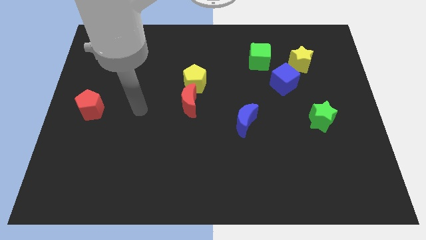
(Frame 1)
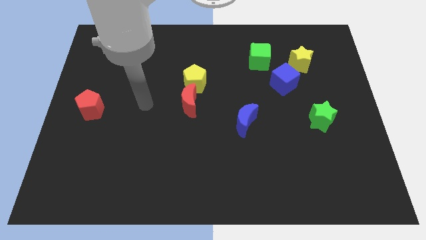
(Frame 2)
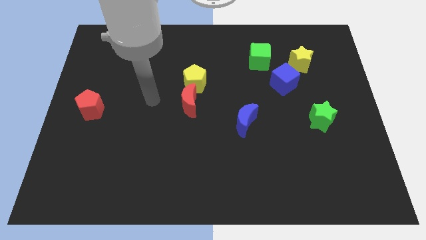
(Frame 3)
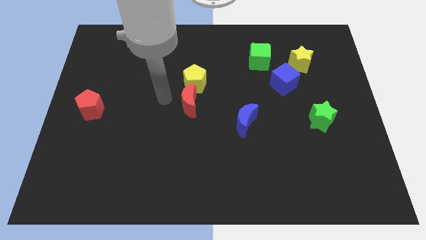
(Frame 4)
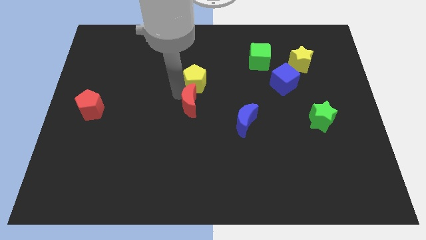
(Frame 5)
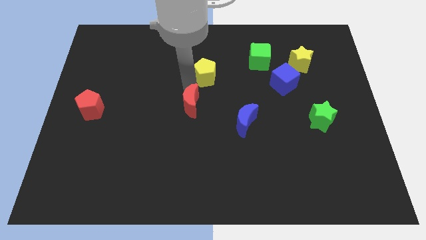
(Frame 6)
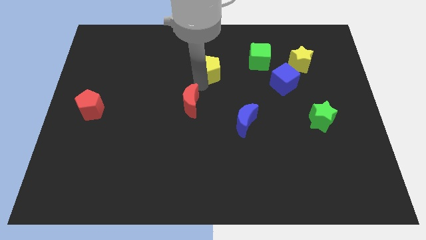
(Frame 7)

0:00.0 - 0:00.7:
separate the red moon from the yellow pentagon

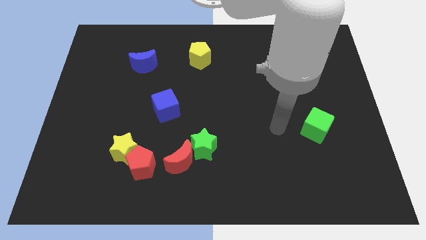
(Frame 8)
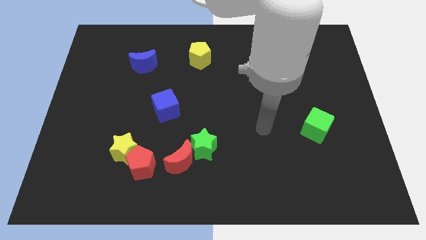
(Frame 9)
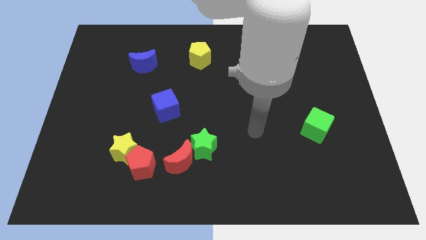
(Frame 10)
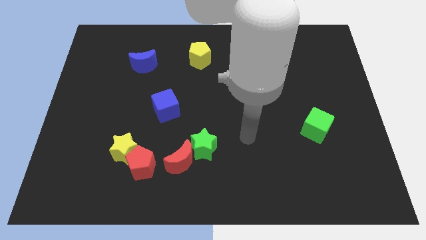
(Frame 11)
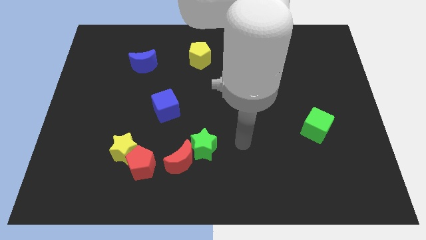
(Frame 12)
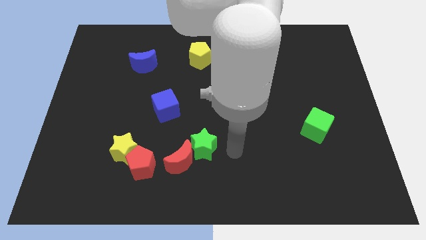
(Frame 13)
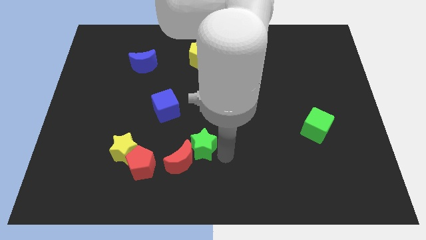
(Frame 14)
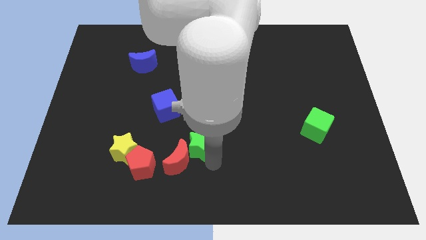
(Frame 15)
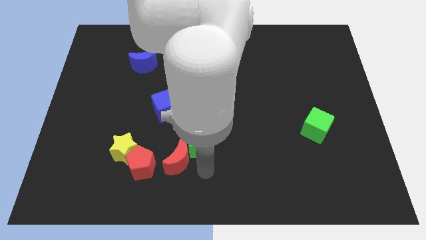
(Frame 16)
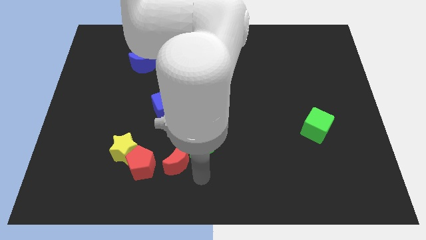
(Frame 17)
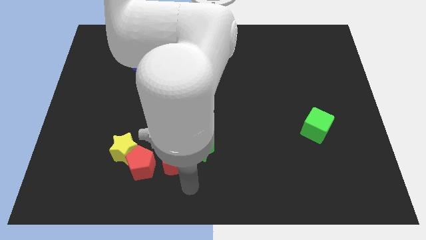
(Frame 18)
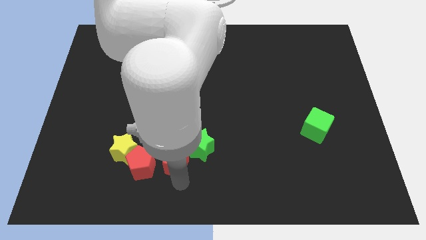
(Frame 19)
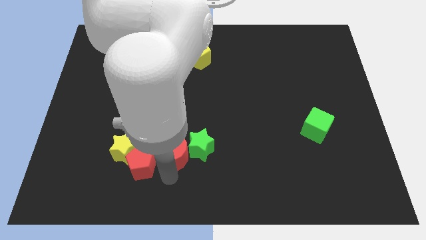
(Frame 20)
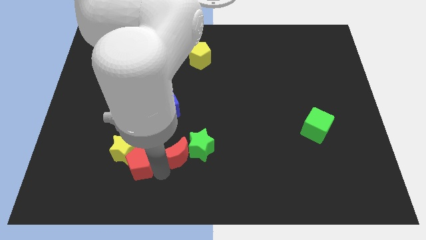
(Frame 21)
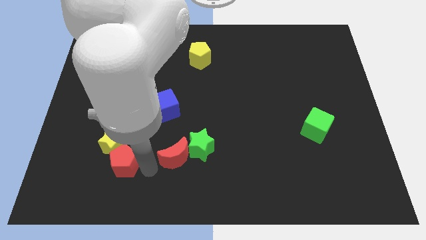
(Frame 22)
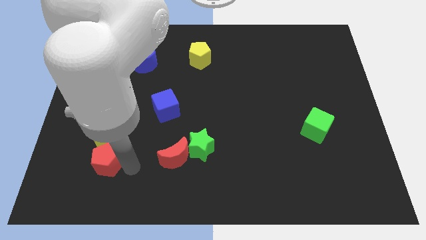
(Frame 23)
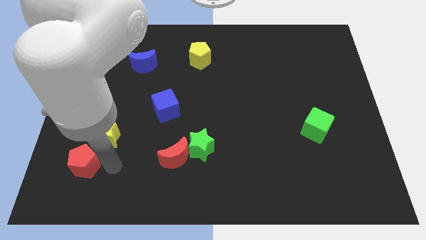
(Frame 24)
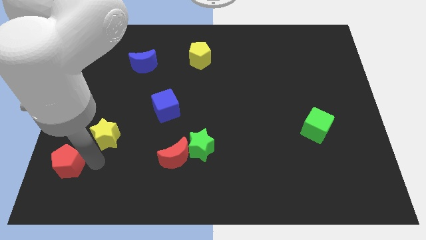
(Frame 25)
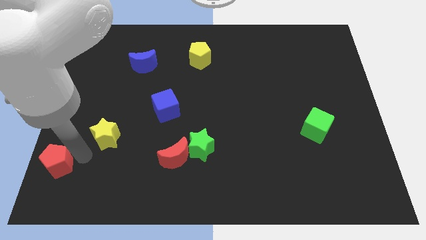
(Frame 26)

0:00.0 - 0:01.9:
move the yellow star away from the red pentagon

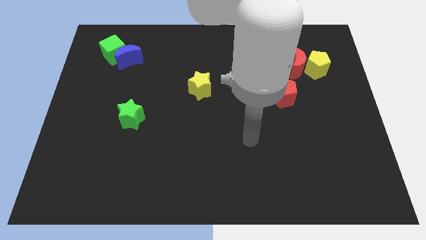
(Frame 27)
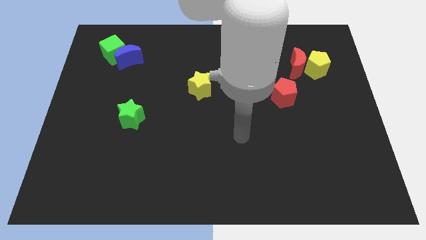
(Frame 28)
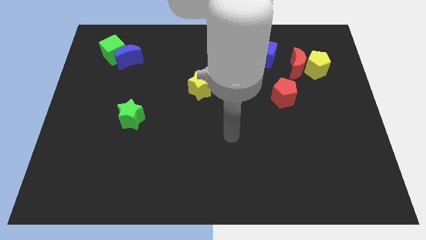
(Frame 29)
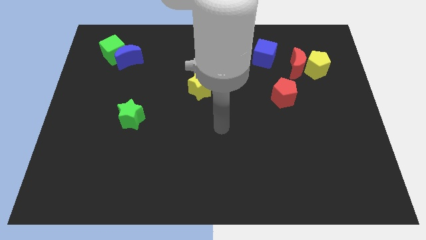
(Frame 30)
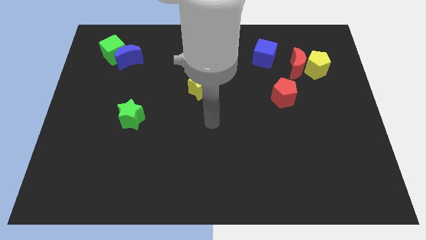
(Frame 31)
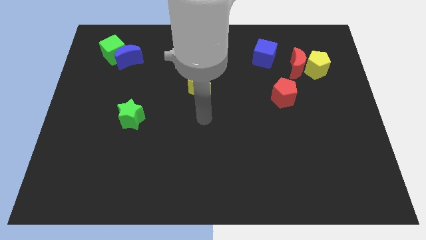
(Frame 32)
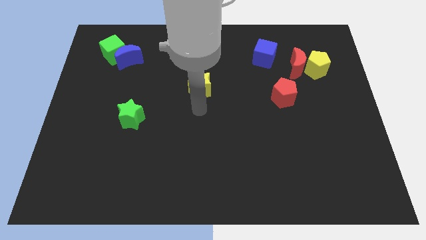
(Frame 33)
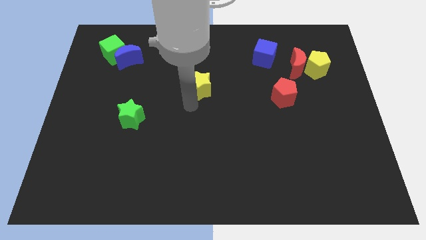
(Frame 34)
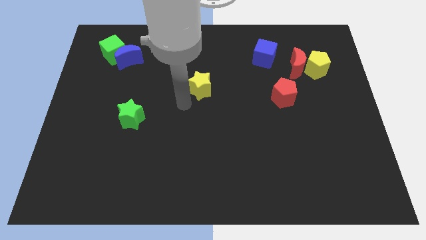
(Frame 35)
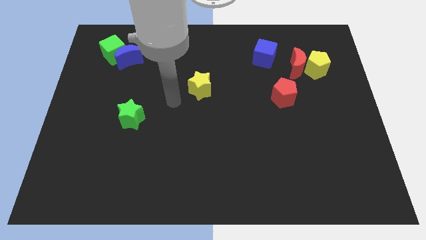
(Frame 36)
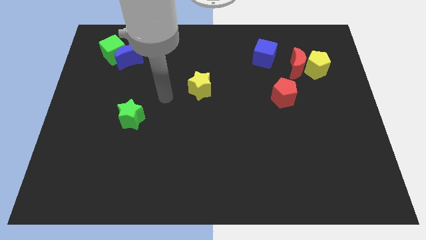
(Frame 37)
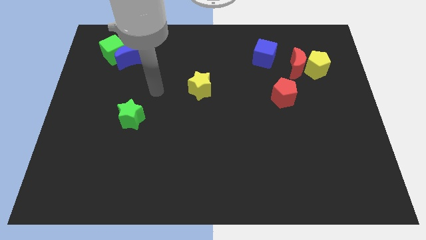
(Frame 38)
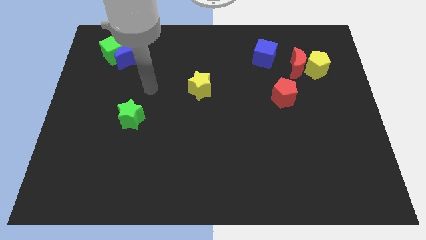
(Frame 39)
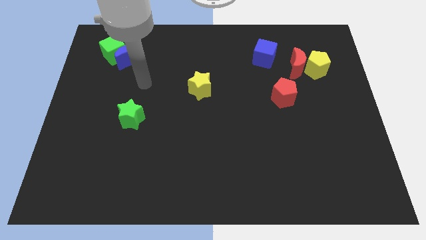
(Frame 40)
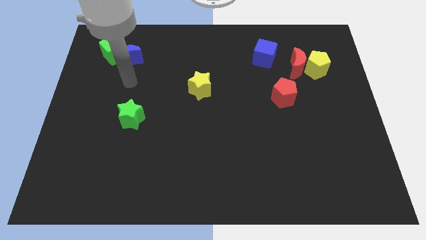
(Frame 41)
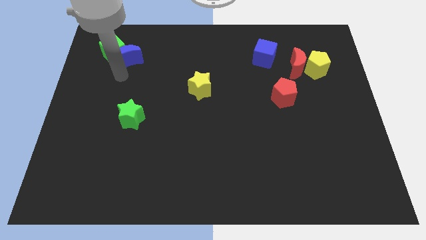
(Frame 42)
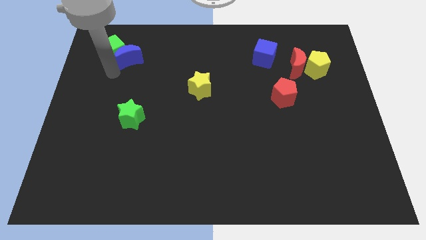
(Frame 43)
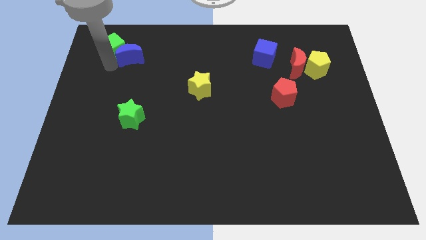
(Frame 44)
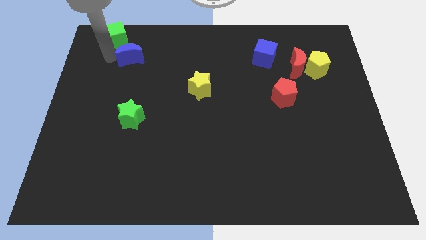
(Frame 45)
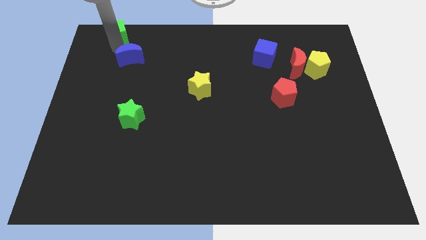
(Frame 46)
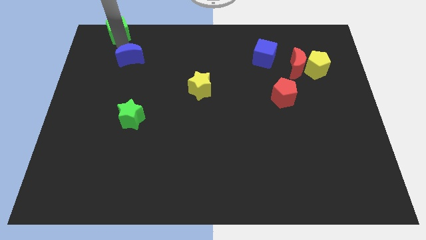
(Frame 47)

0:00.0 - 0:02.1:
separate the blue moon from the green cube

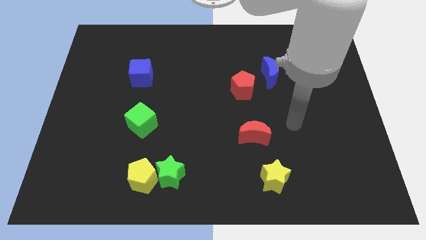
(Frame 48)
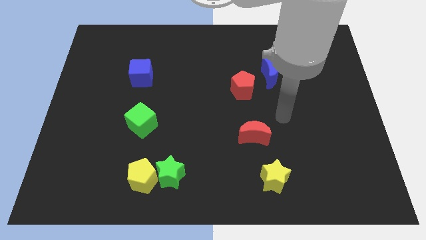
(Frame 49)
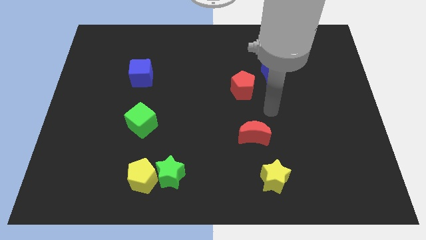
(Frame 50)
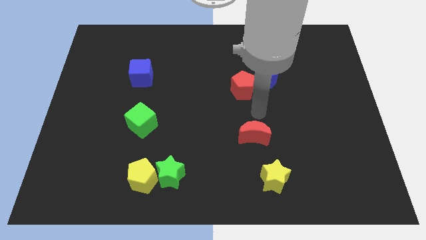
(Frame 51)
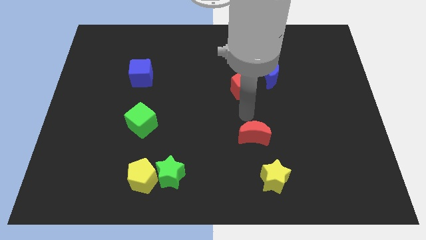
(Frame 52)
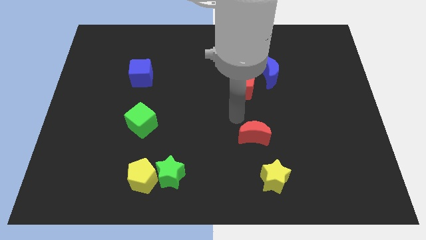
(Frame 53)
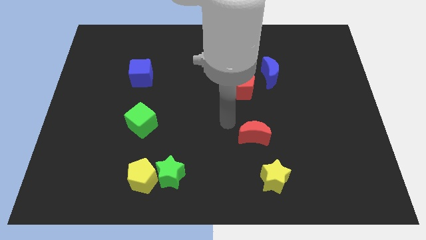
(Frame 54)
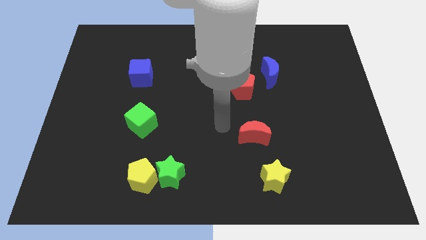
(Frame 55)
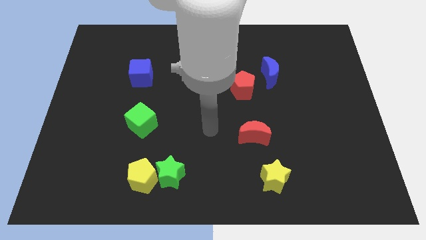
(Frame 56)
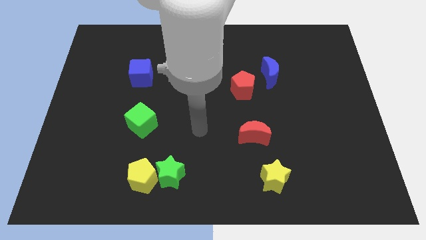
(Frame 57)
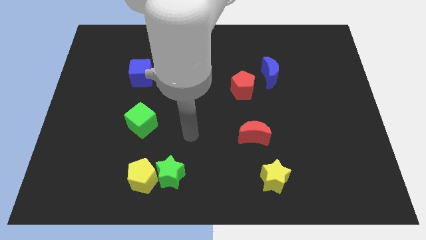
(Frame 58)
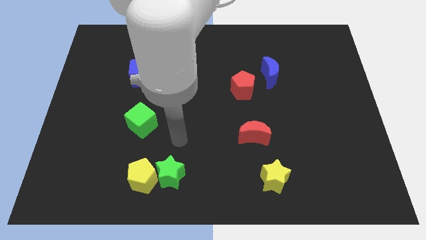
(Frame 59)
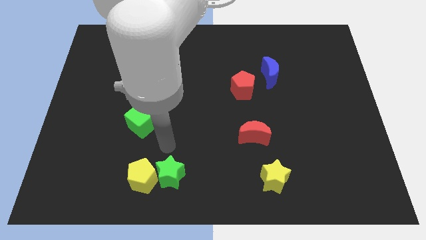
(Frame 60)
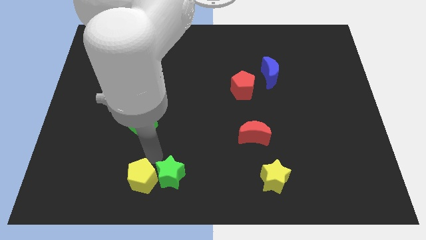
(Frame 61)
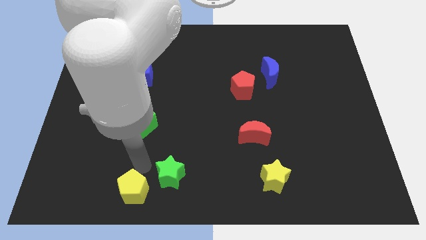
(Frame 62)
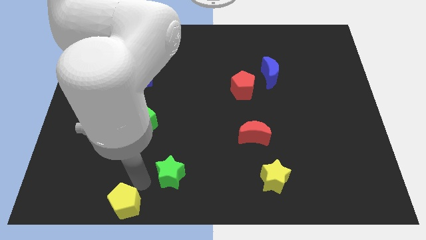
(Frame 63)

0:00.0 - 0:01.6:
move the green star away from the yellow pentagon

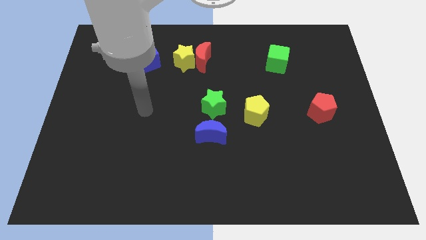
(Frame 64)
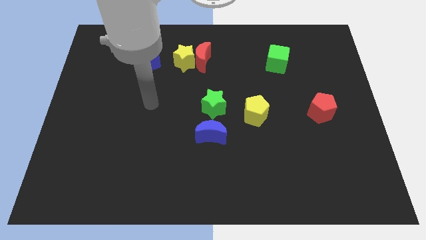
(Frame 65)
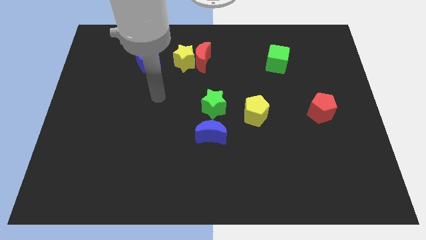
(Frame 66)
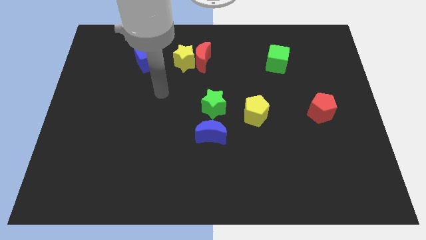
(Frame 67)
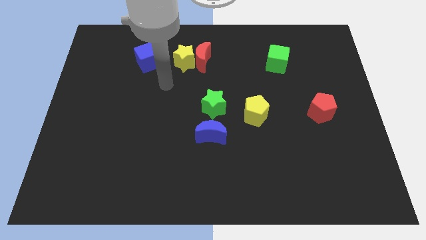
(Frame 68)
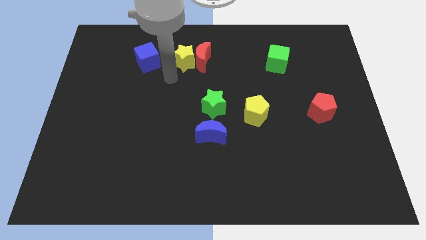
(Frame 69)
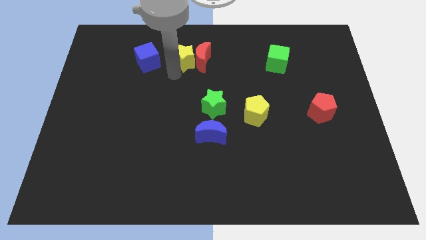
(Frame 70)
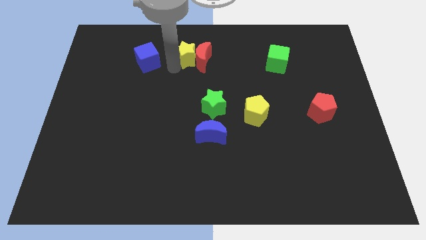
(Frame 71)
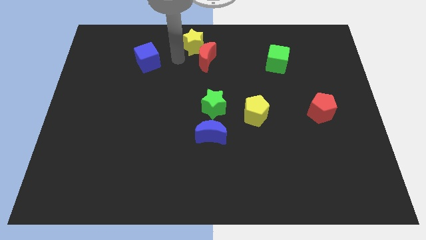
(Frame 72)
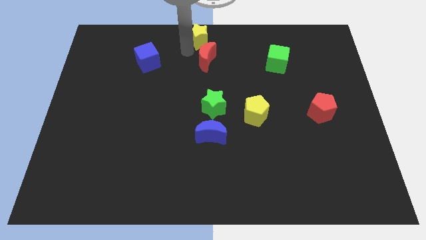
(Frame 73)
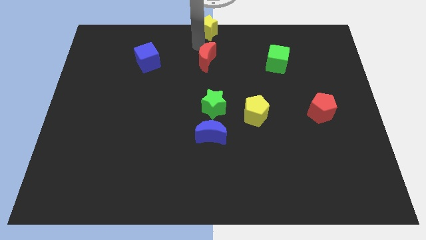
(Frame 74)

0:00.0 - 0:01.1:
pull the red moon apart from the yellow star

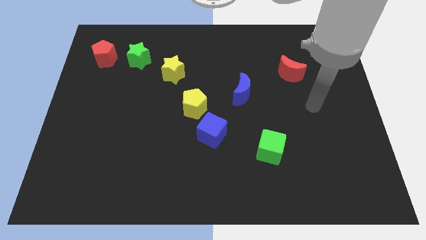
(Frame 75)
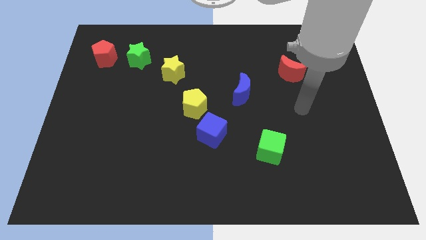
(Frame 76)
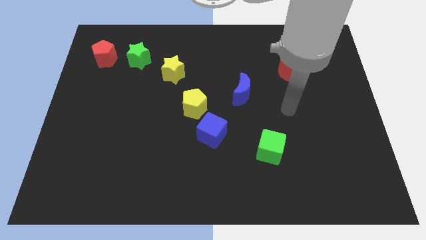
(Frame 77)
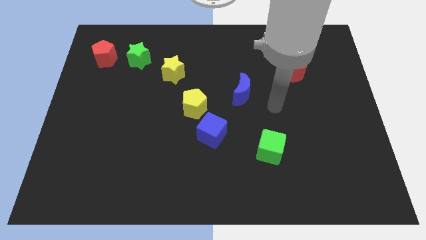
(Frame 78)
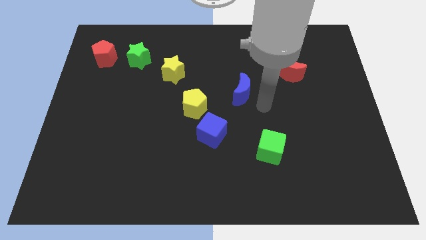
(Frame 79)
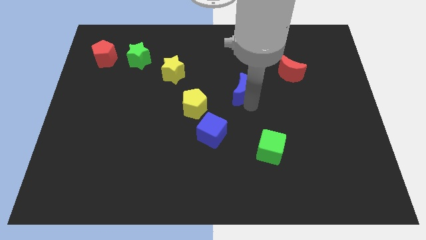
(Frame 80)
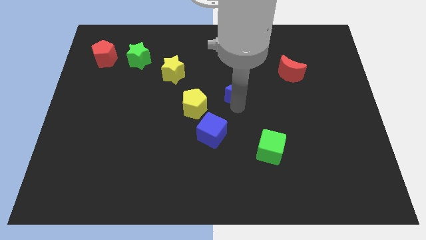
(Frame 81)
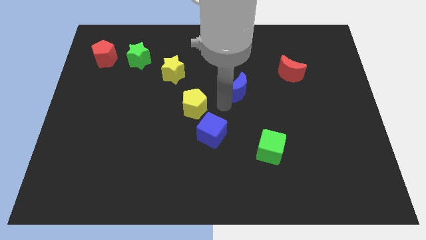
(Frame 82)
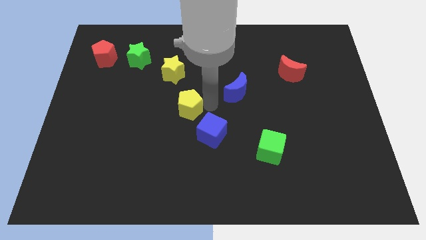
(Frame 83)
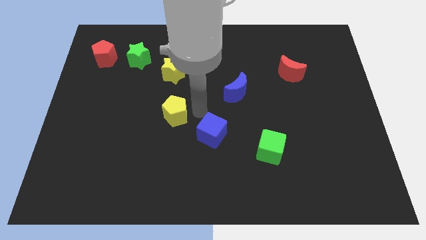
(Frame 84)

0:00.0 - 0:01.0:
move the blue cube away from the yellow pentagon

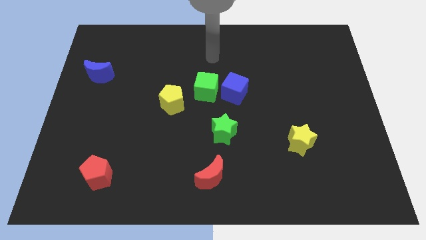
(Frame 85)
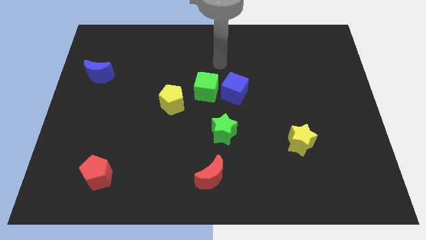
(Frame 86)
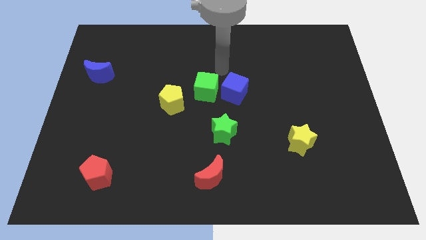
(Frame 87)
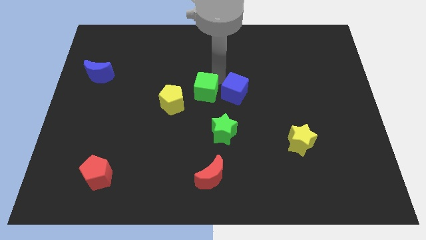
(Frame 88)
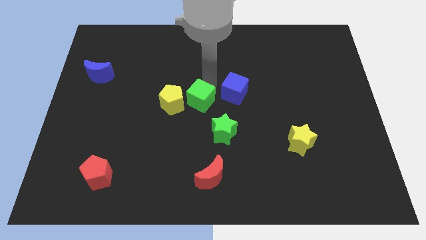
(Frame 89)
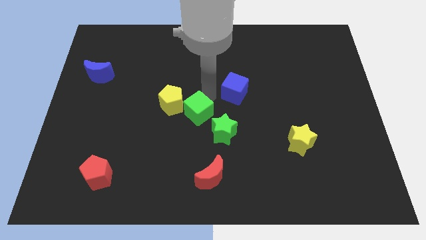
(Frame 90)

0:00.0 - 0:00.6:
move the blue cube away from the green cube

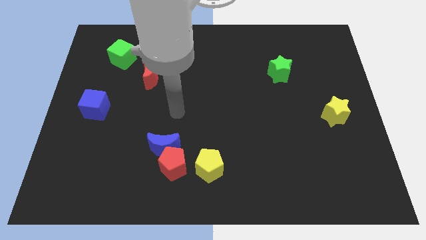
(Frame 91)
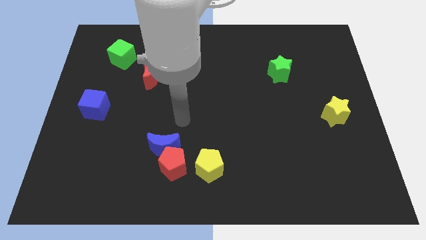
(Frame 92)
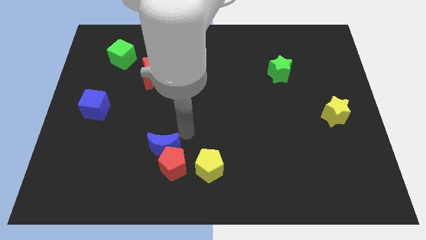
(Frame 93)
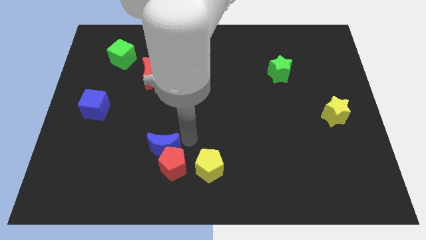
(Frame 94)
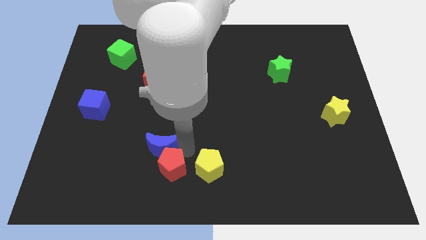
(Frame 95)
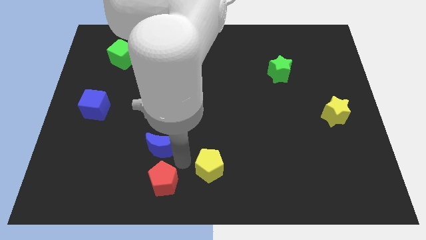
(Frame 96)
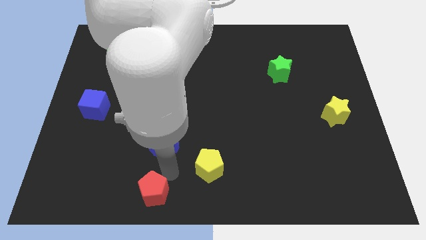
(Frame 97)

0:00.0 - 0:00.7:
move the blue moon away from the red pentagon
